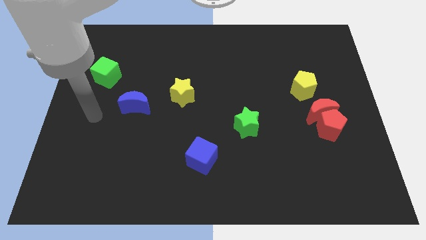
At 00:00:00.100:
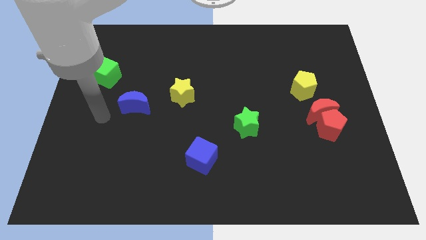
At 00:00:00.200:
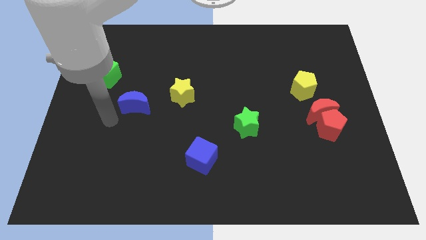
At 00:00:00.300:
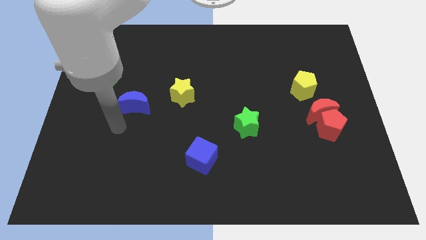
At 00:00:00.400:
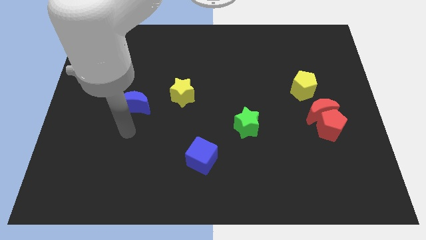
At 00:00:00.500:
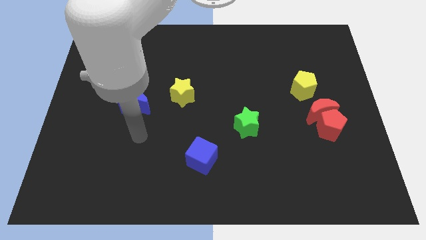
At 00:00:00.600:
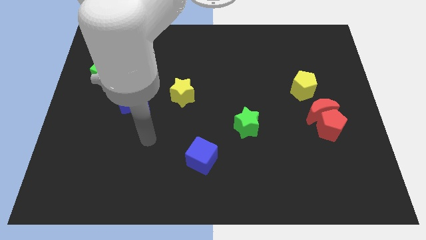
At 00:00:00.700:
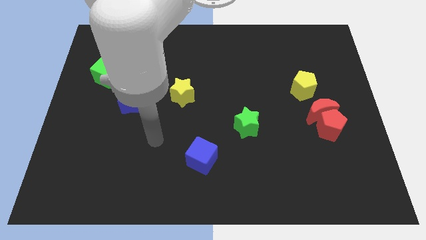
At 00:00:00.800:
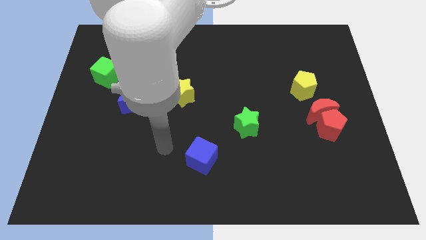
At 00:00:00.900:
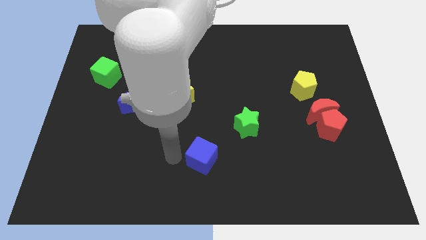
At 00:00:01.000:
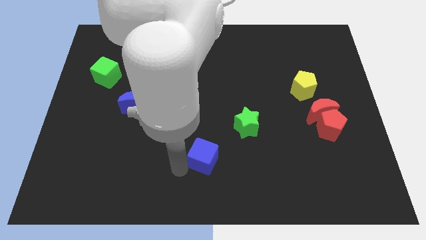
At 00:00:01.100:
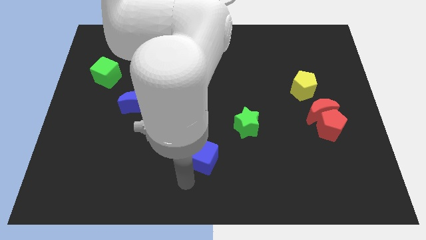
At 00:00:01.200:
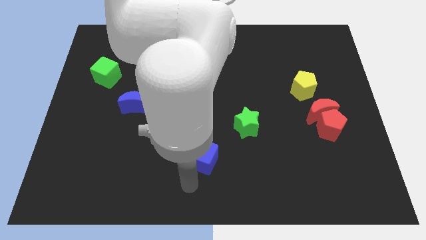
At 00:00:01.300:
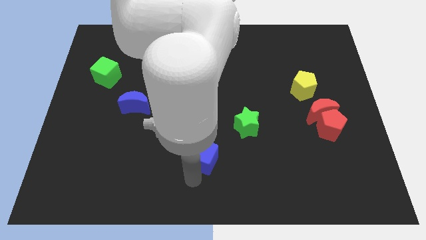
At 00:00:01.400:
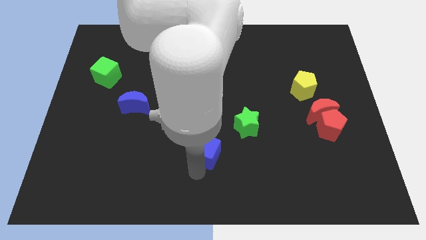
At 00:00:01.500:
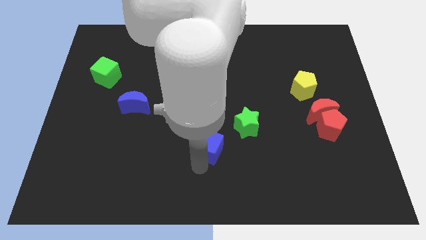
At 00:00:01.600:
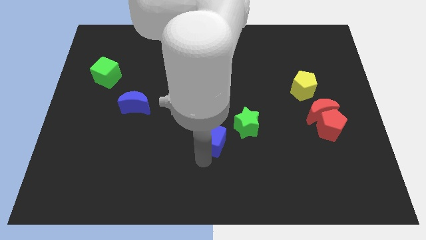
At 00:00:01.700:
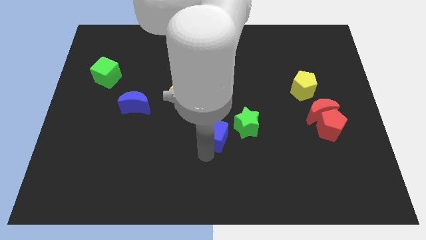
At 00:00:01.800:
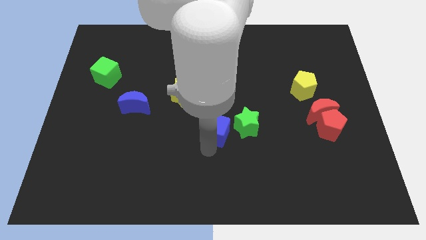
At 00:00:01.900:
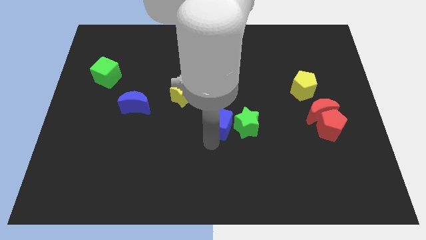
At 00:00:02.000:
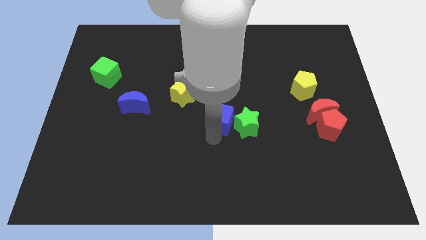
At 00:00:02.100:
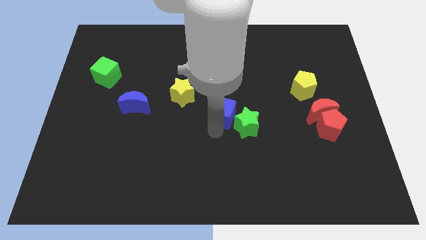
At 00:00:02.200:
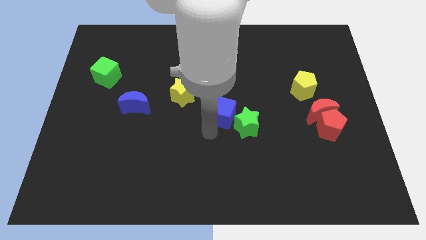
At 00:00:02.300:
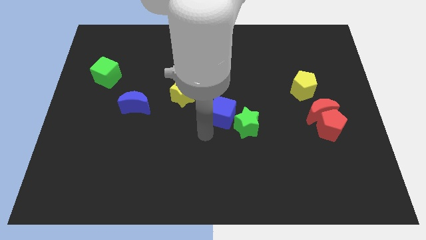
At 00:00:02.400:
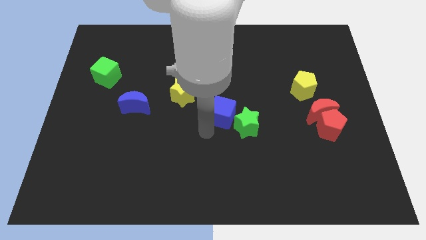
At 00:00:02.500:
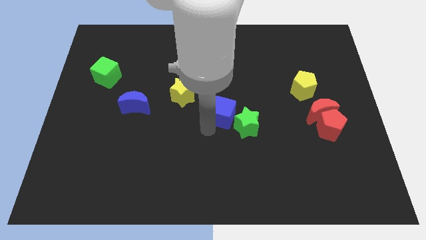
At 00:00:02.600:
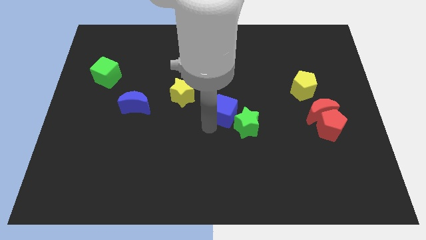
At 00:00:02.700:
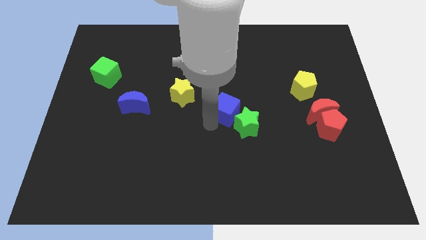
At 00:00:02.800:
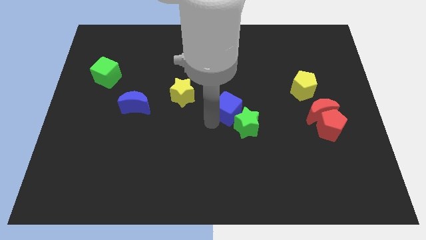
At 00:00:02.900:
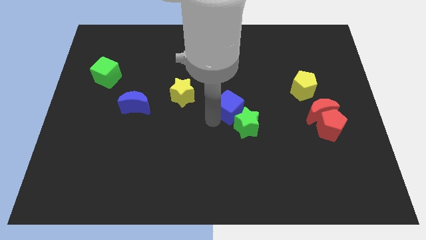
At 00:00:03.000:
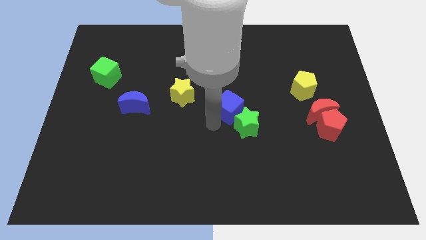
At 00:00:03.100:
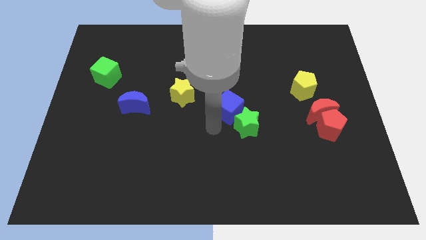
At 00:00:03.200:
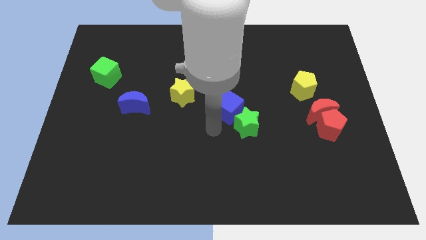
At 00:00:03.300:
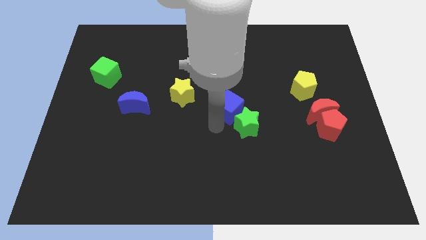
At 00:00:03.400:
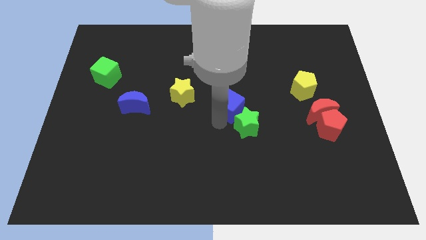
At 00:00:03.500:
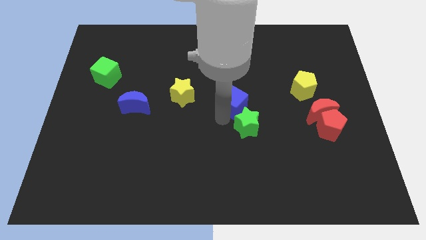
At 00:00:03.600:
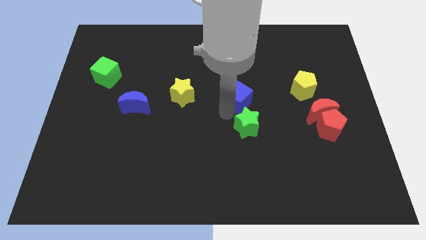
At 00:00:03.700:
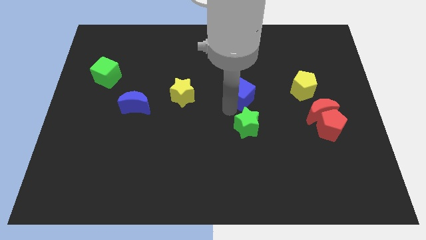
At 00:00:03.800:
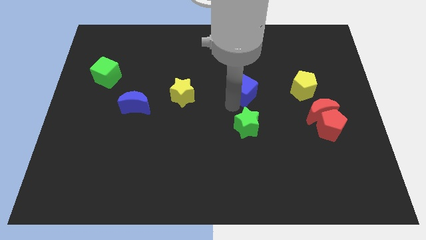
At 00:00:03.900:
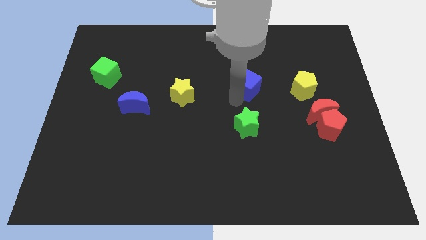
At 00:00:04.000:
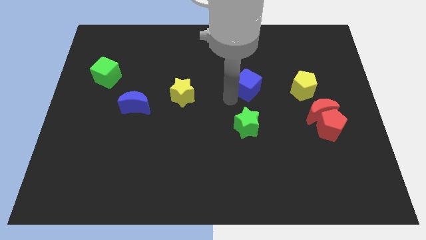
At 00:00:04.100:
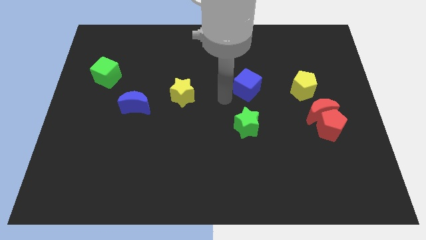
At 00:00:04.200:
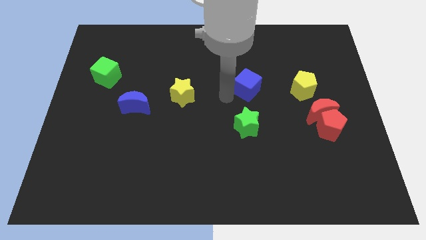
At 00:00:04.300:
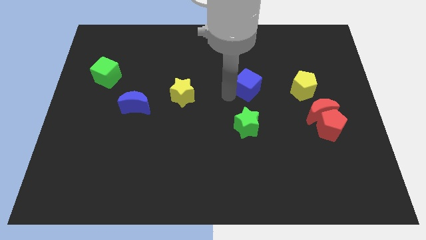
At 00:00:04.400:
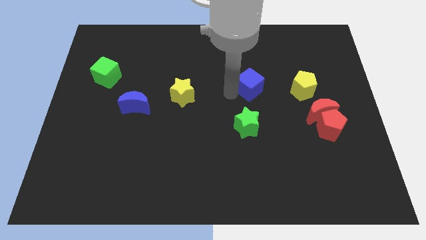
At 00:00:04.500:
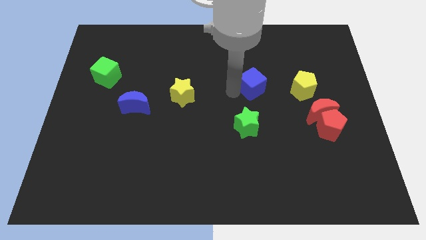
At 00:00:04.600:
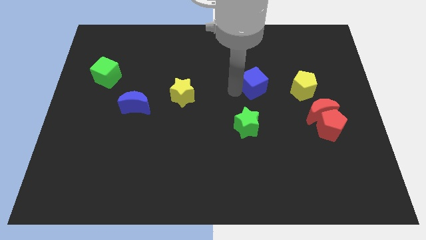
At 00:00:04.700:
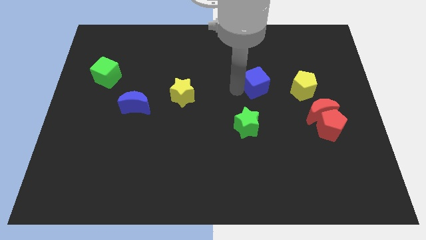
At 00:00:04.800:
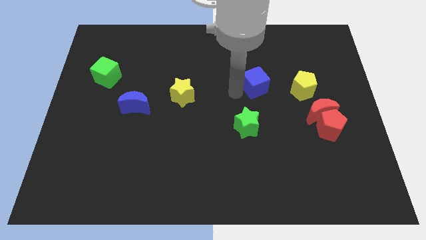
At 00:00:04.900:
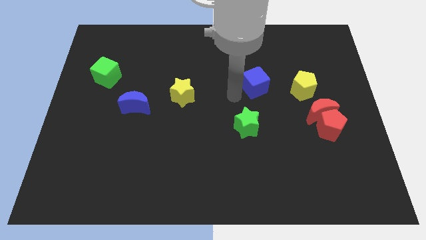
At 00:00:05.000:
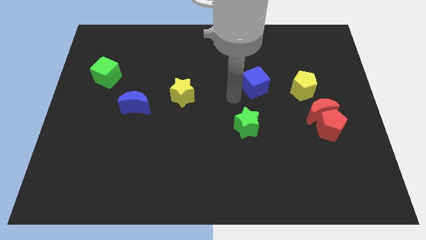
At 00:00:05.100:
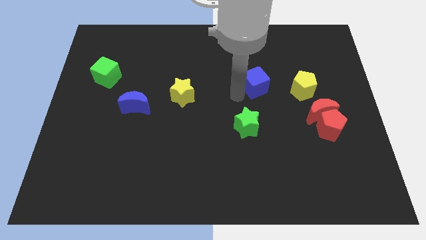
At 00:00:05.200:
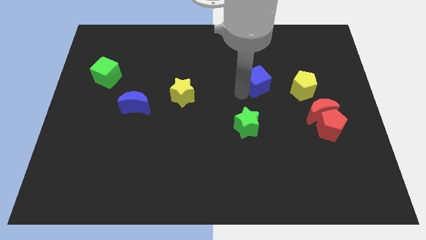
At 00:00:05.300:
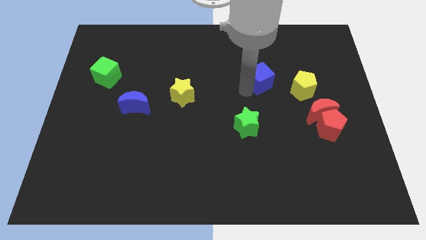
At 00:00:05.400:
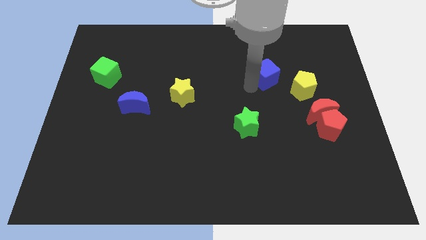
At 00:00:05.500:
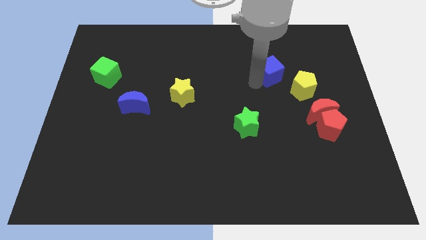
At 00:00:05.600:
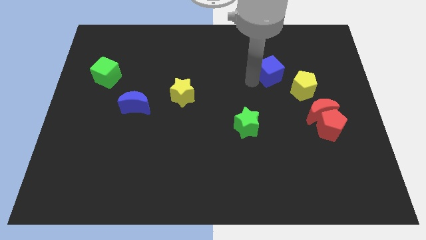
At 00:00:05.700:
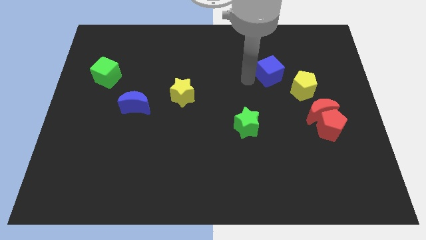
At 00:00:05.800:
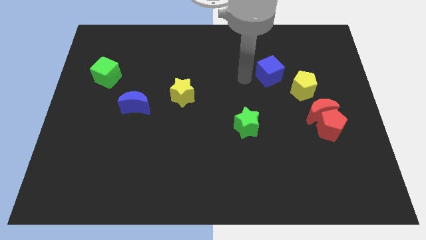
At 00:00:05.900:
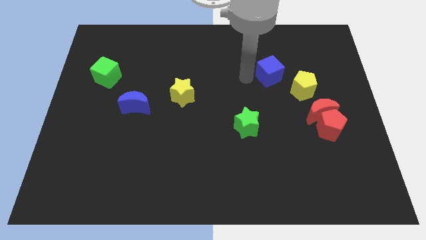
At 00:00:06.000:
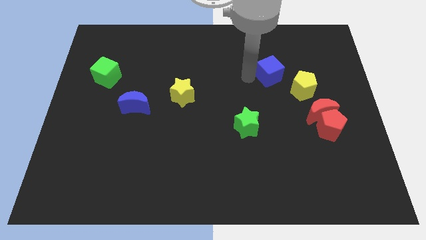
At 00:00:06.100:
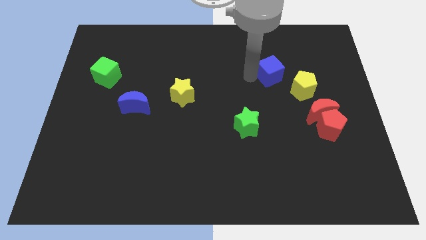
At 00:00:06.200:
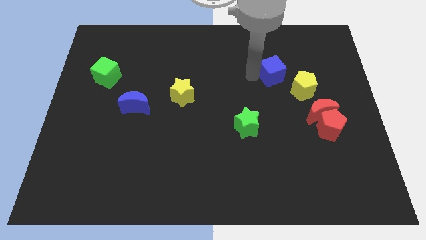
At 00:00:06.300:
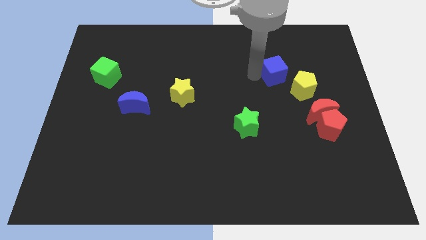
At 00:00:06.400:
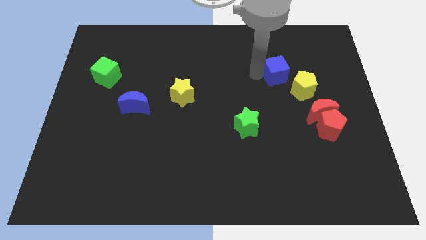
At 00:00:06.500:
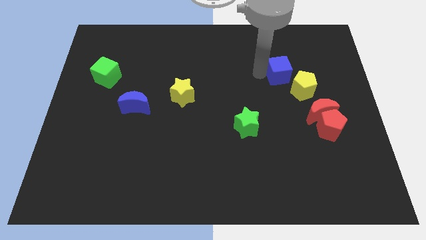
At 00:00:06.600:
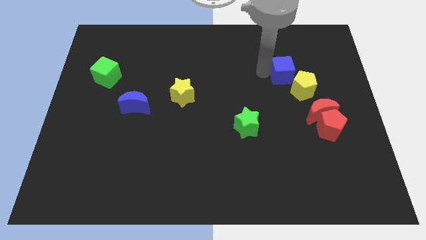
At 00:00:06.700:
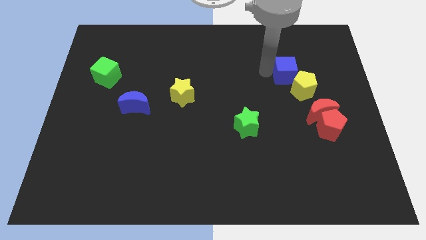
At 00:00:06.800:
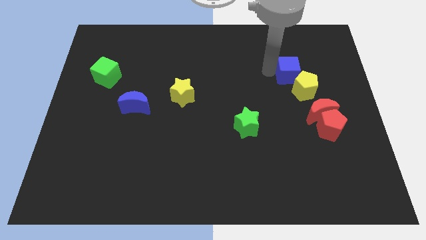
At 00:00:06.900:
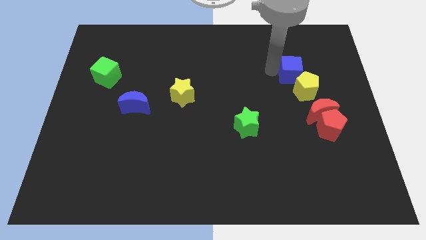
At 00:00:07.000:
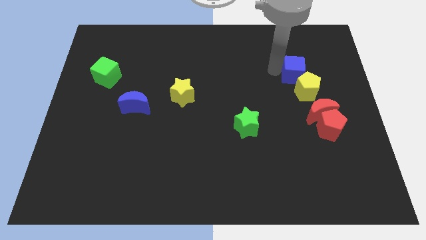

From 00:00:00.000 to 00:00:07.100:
move the blue cube to the top side of the red moon

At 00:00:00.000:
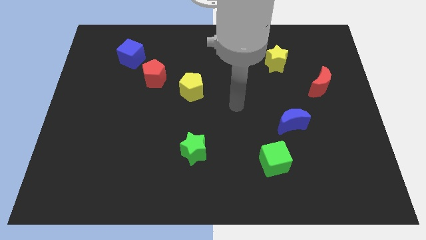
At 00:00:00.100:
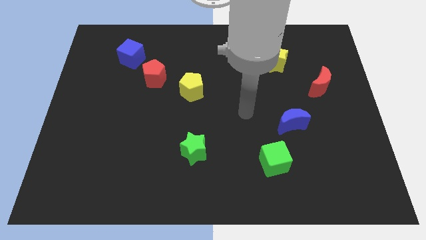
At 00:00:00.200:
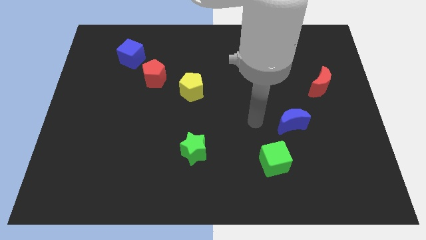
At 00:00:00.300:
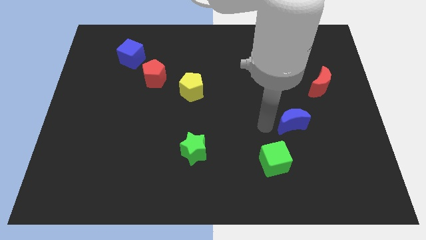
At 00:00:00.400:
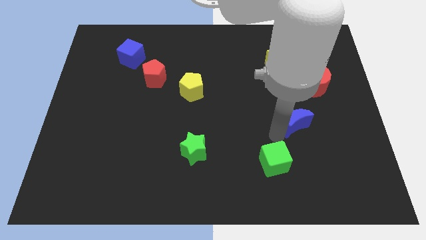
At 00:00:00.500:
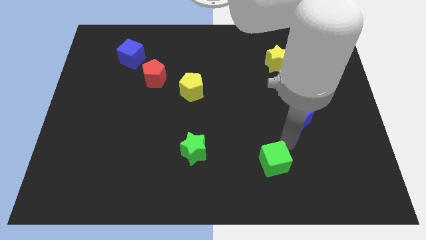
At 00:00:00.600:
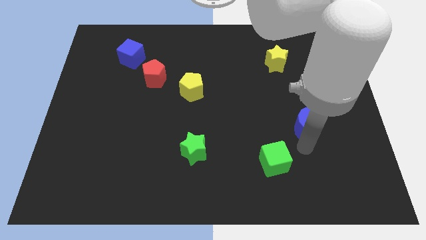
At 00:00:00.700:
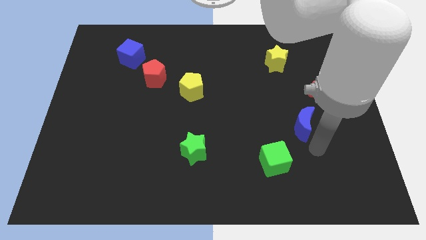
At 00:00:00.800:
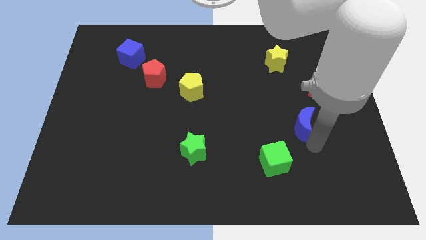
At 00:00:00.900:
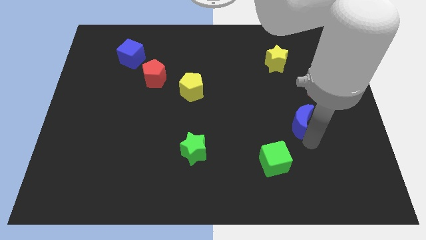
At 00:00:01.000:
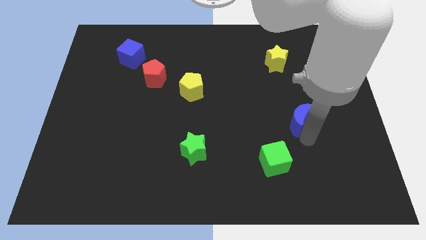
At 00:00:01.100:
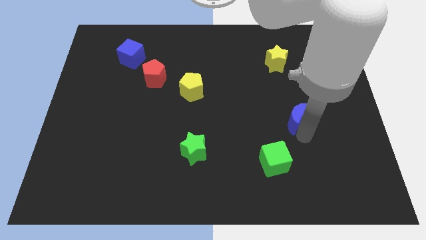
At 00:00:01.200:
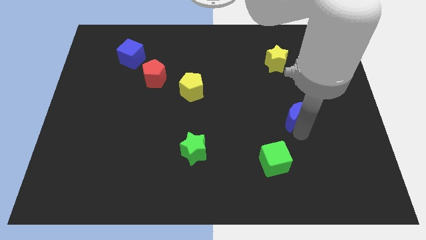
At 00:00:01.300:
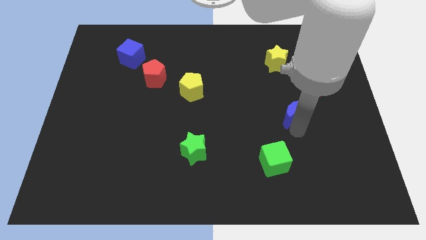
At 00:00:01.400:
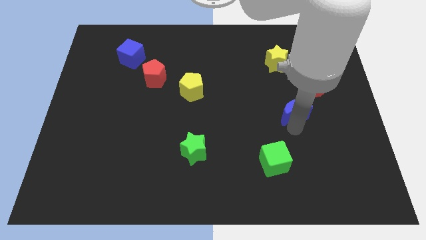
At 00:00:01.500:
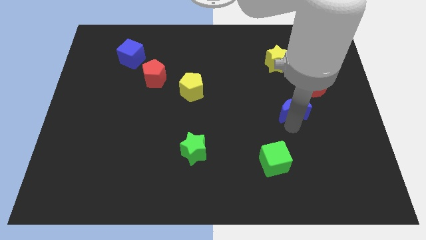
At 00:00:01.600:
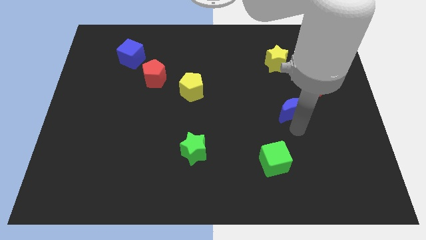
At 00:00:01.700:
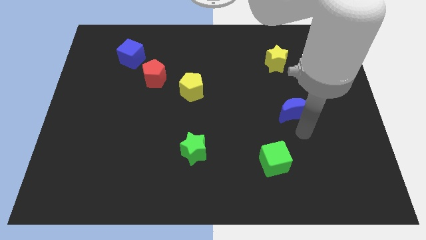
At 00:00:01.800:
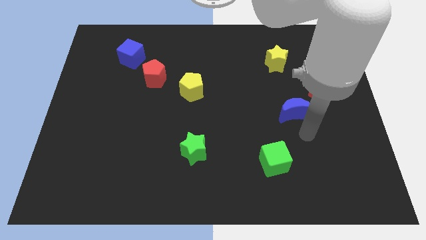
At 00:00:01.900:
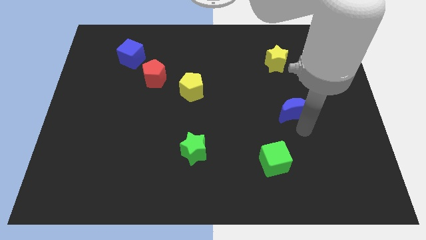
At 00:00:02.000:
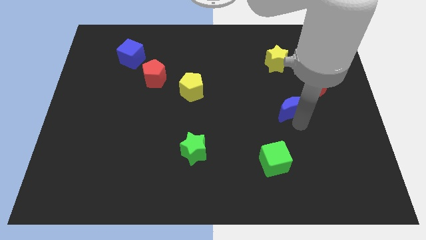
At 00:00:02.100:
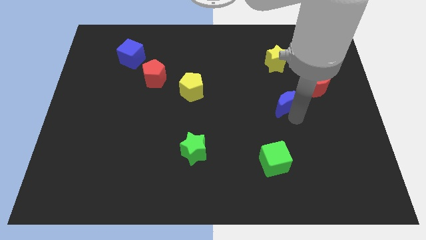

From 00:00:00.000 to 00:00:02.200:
put the blue moon below the yellow star
